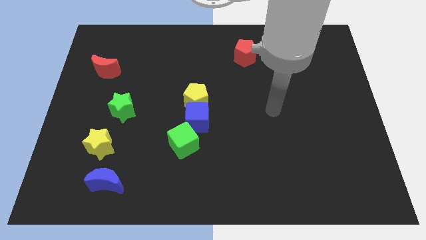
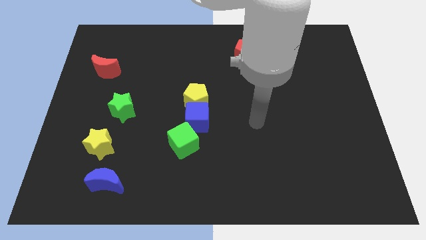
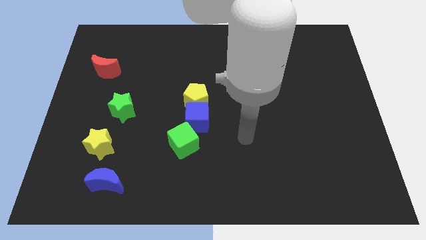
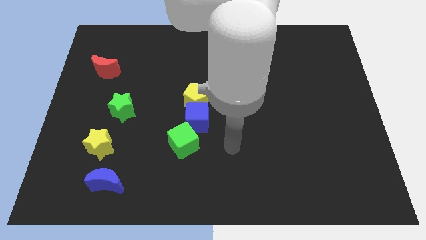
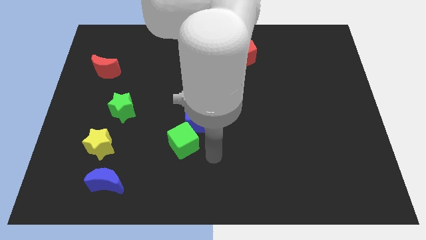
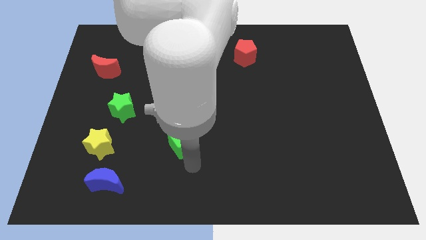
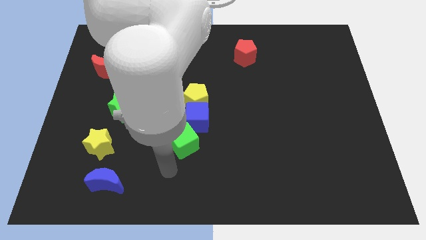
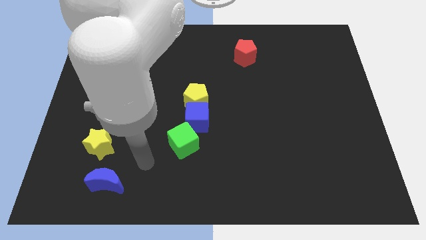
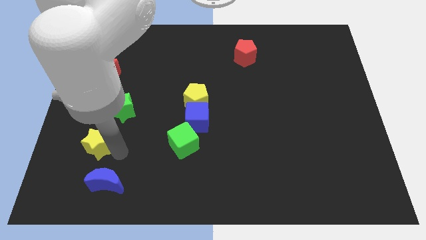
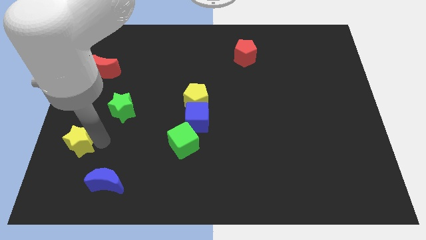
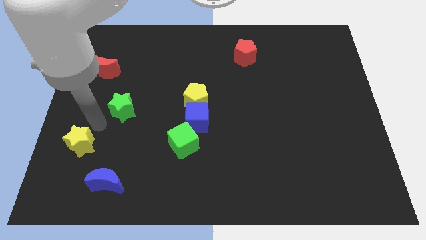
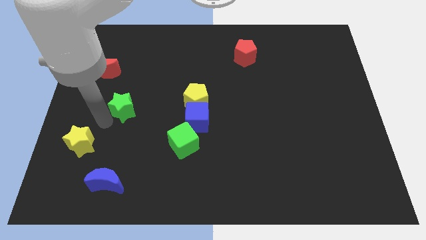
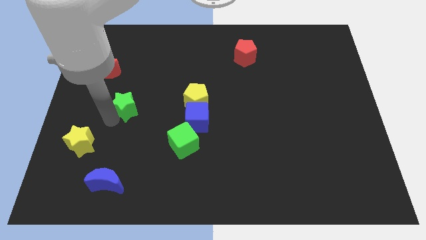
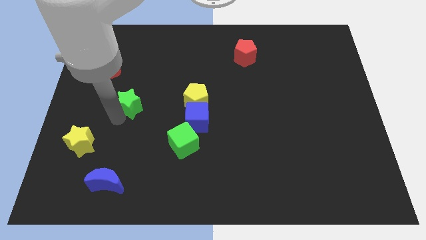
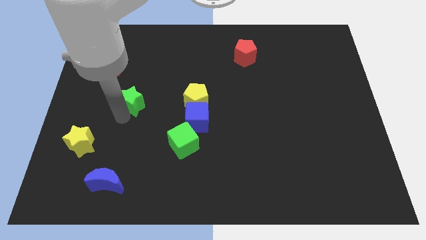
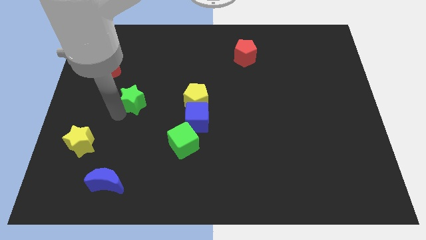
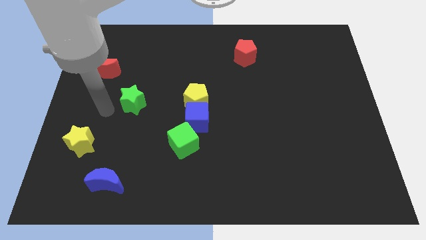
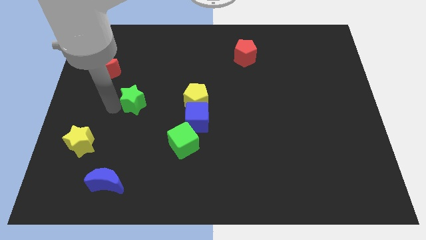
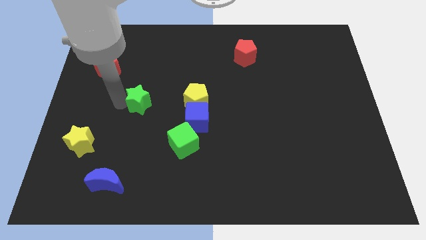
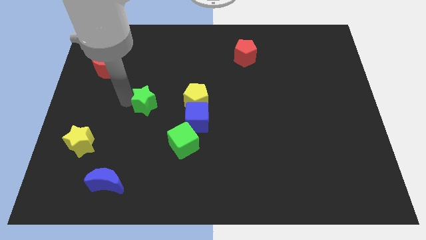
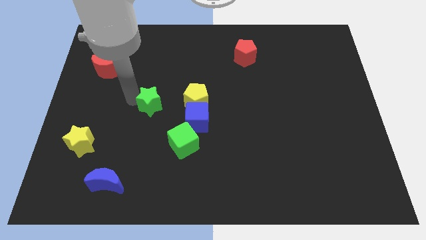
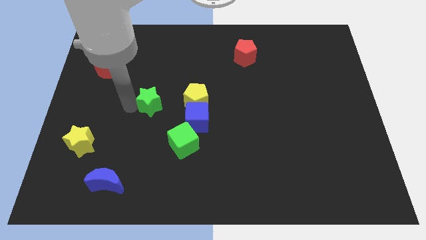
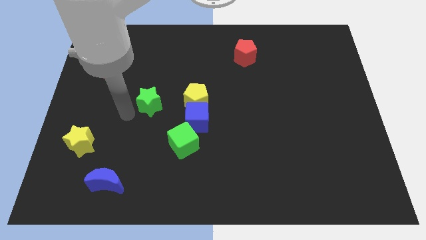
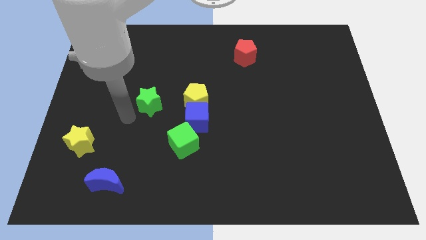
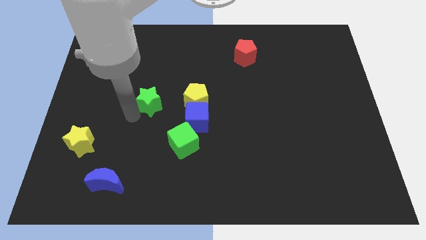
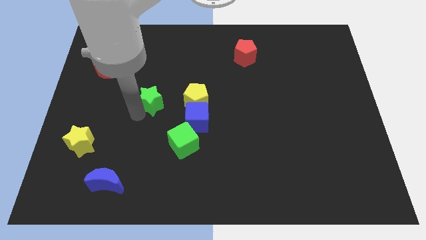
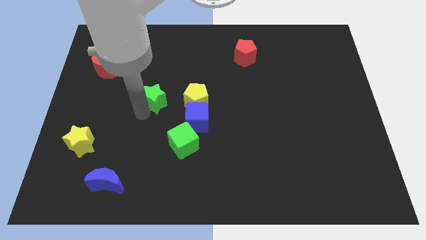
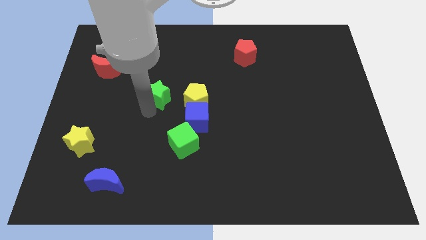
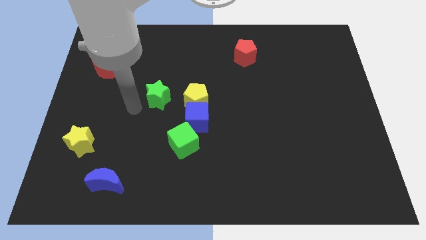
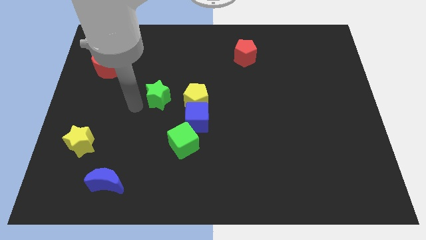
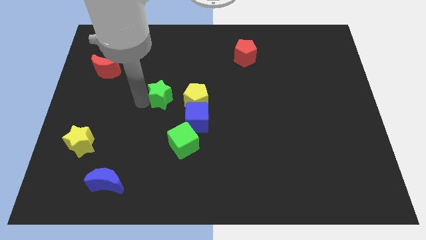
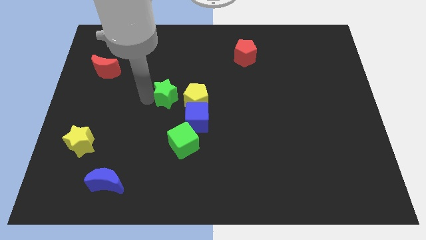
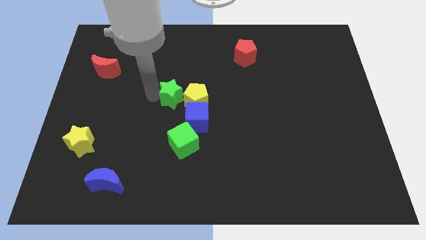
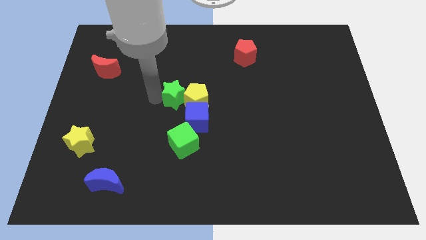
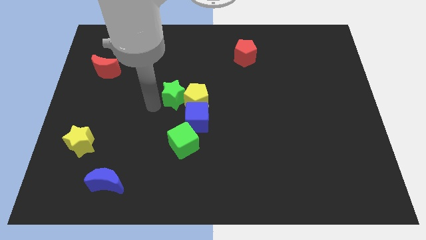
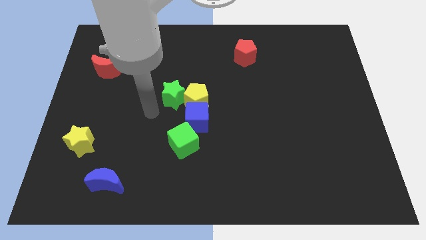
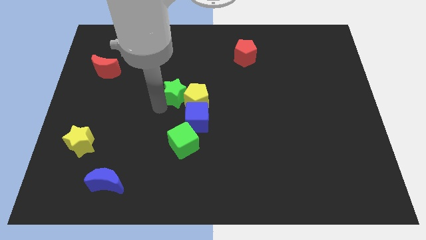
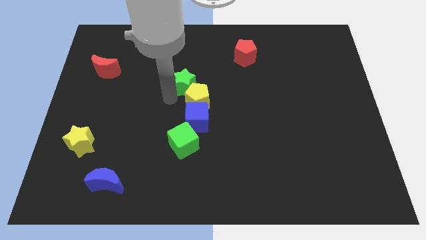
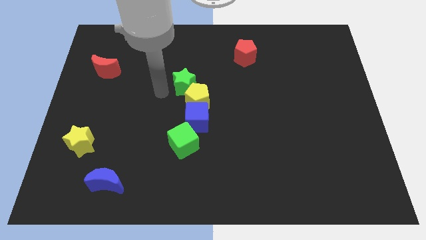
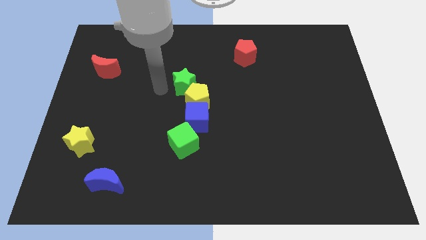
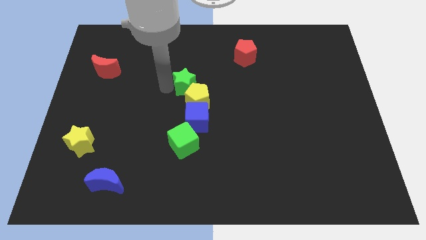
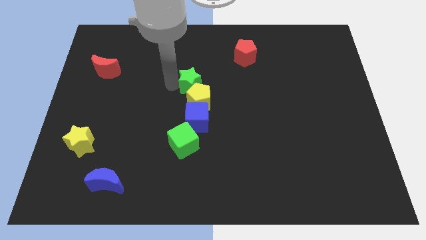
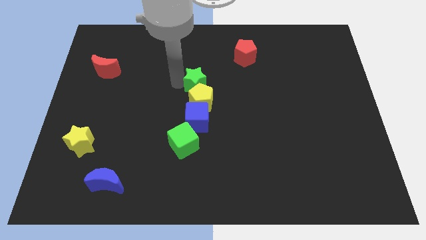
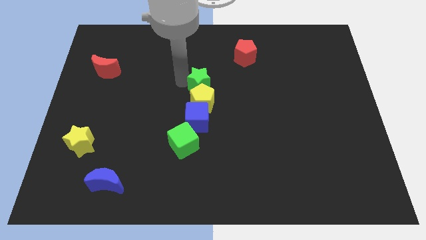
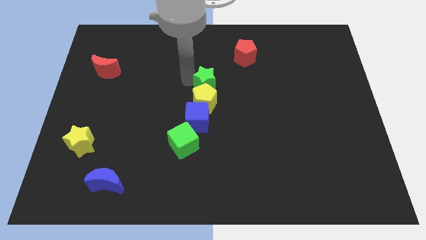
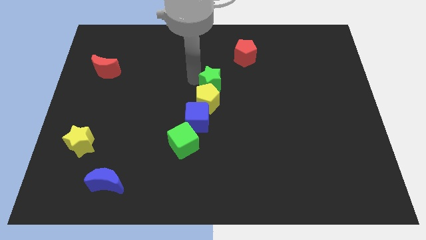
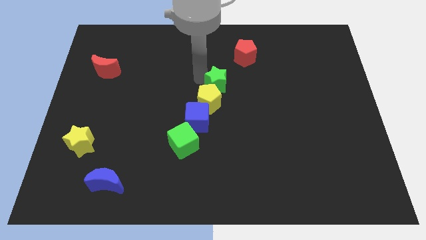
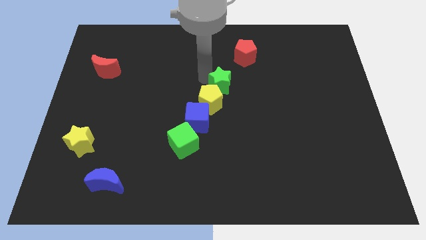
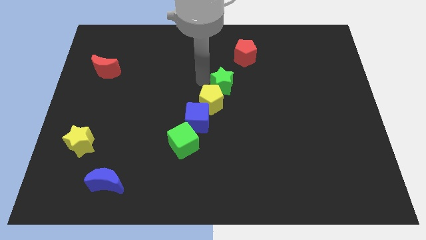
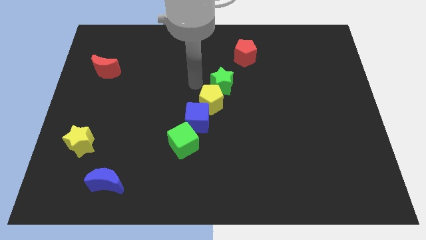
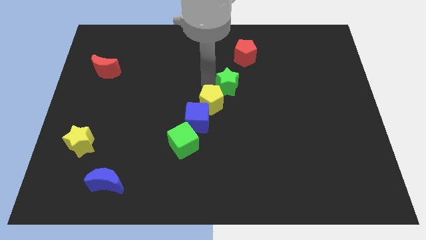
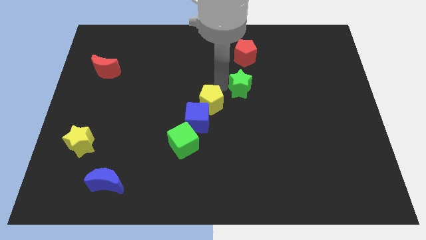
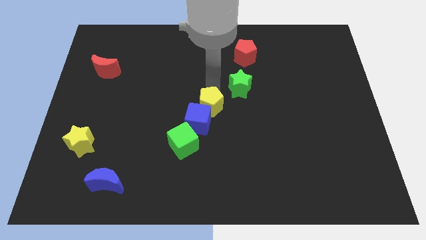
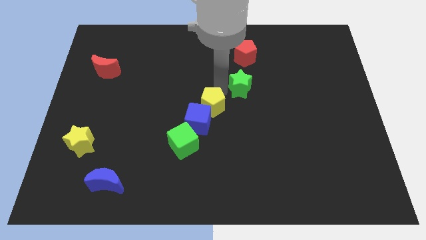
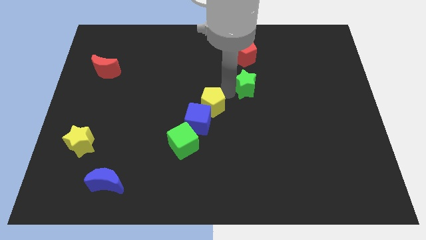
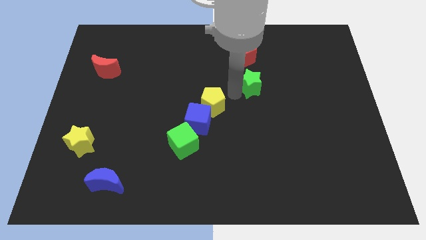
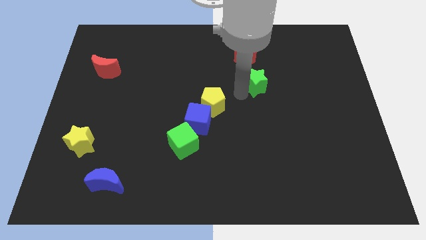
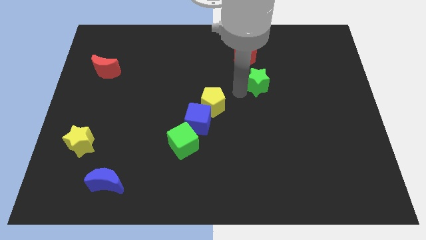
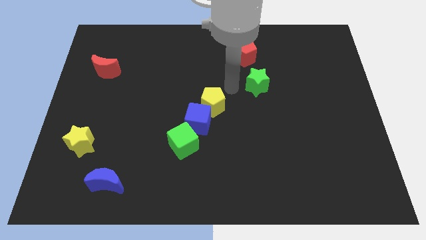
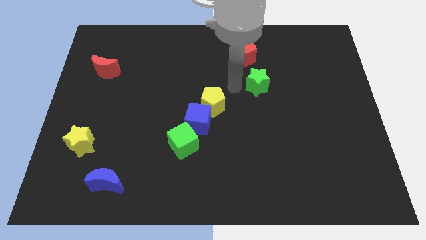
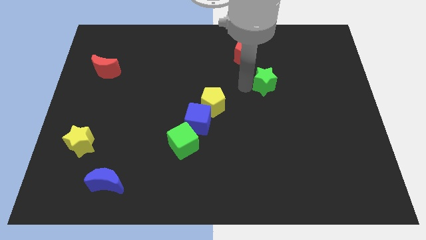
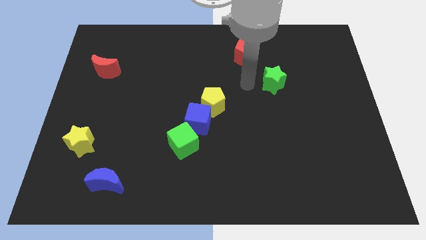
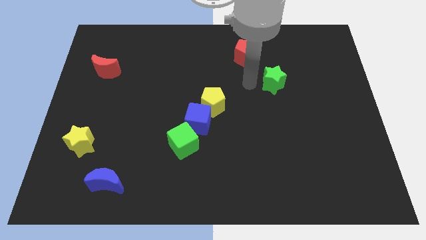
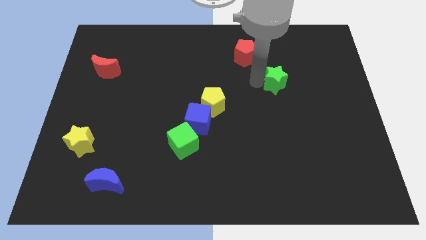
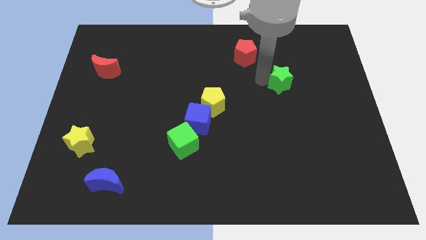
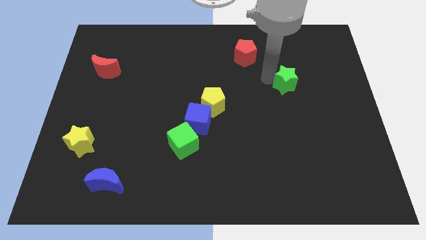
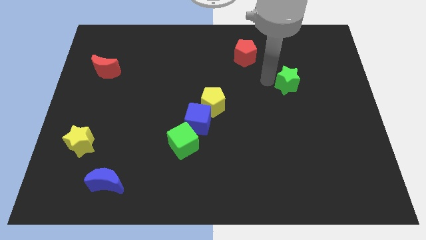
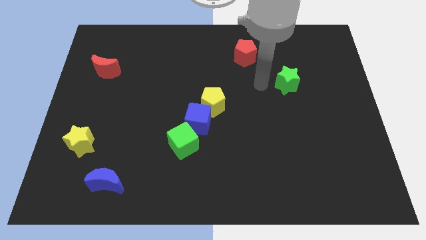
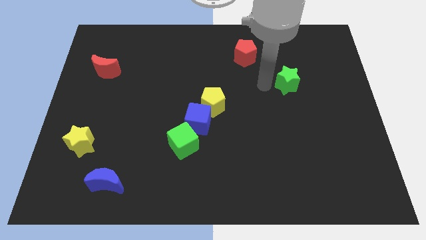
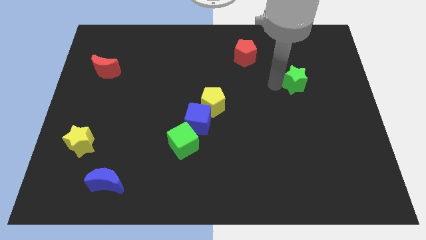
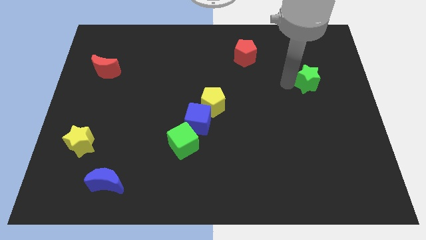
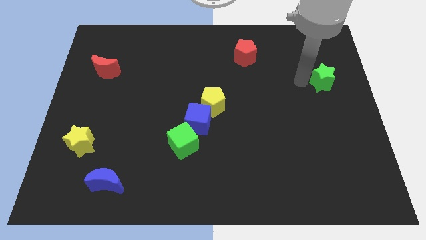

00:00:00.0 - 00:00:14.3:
put the green star to the right side
